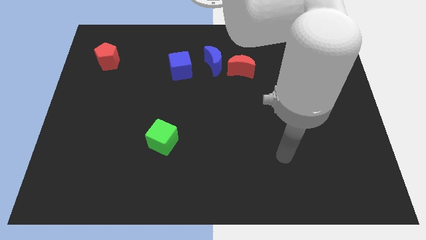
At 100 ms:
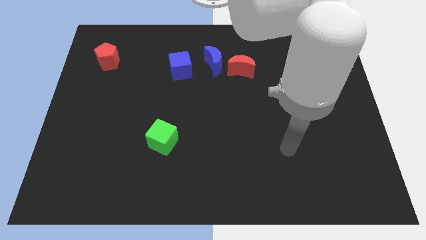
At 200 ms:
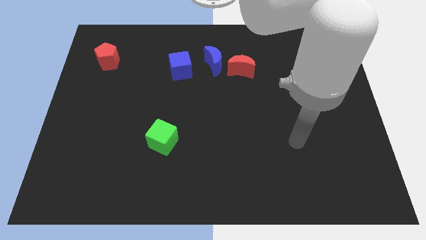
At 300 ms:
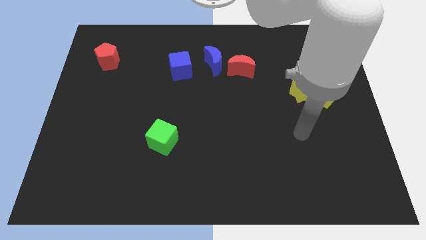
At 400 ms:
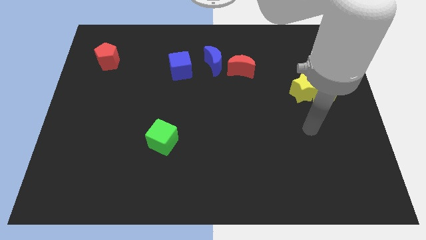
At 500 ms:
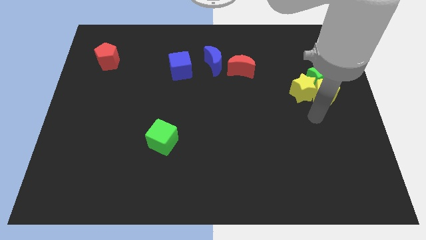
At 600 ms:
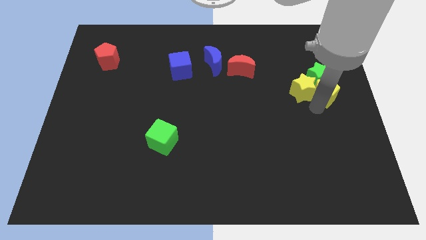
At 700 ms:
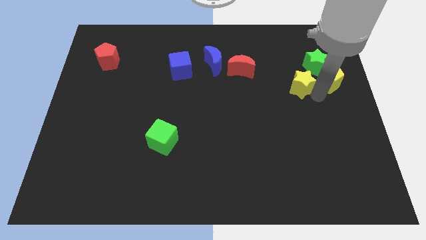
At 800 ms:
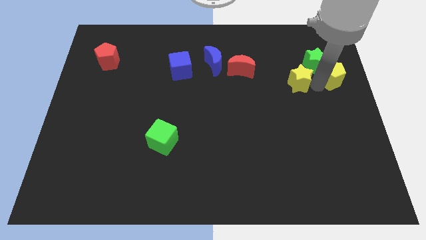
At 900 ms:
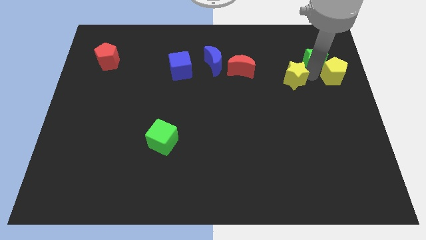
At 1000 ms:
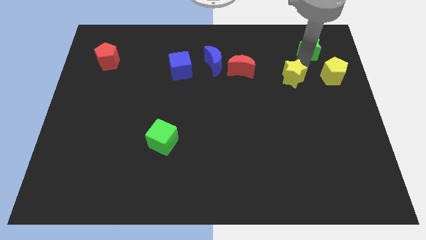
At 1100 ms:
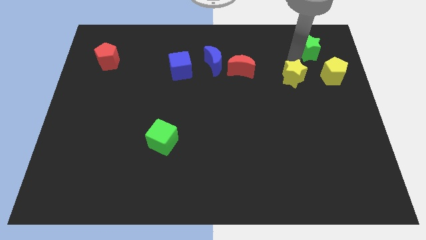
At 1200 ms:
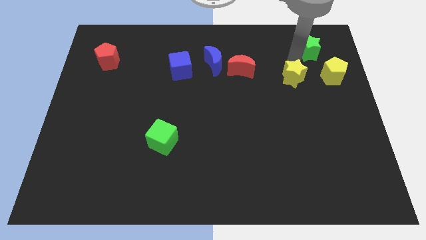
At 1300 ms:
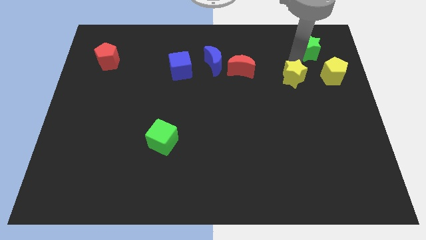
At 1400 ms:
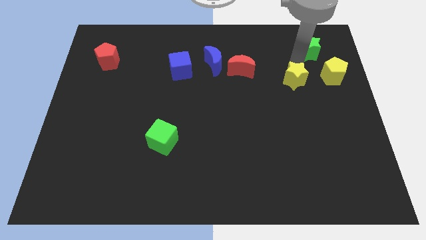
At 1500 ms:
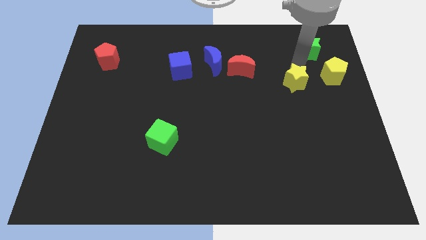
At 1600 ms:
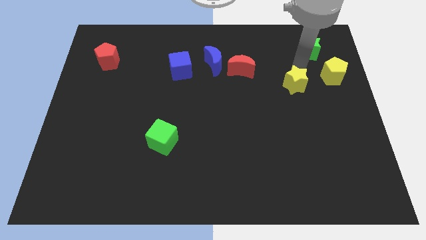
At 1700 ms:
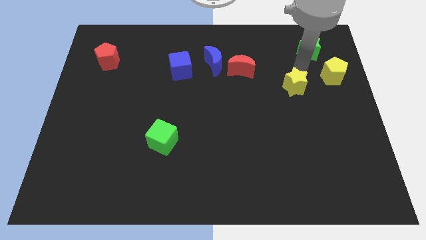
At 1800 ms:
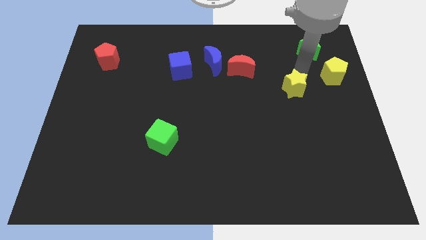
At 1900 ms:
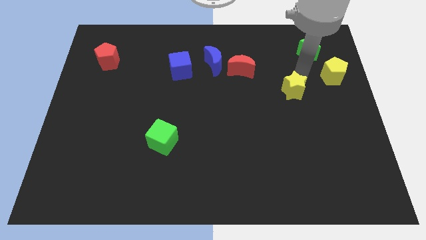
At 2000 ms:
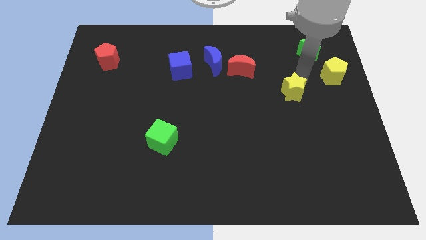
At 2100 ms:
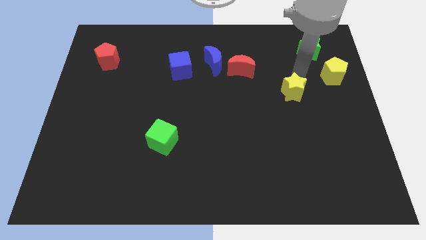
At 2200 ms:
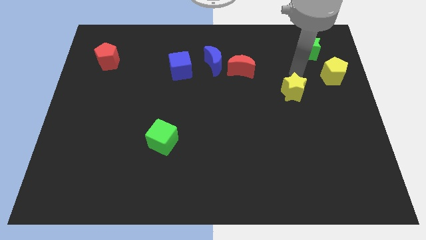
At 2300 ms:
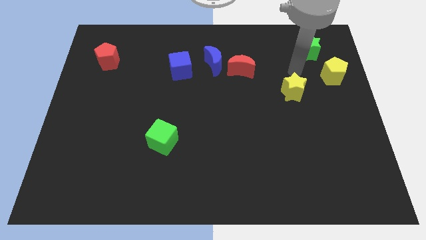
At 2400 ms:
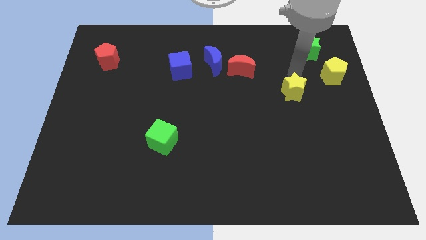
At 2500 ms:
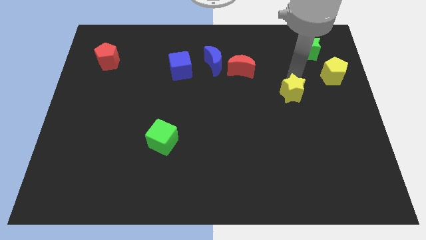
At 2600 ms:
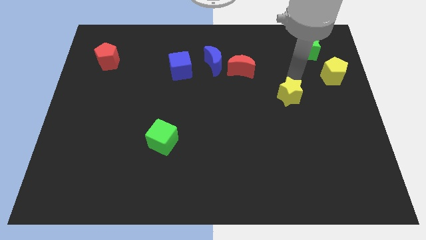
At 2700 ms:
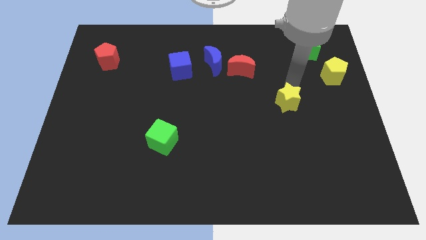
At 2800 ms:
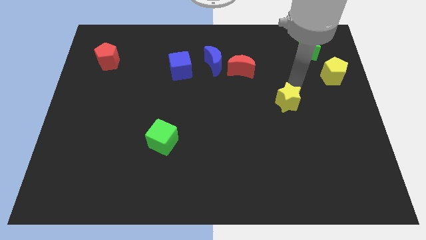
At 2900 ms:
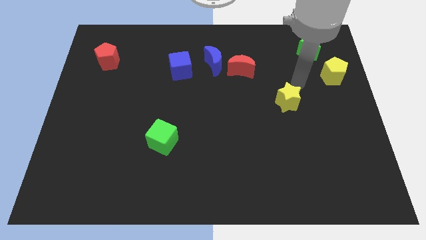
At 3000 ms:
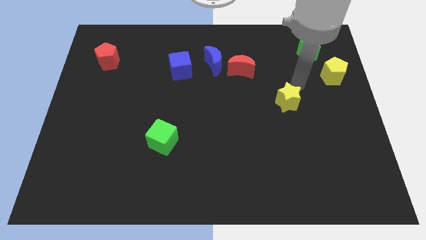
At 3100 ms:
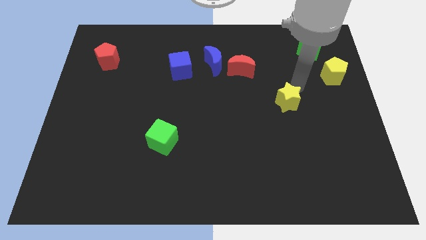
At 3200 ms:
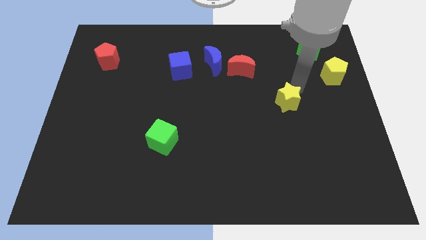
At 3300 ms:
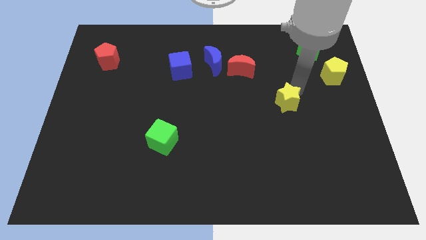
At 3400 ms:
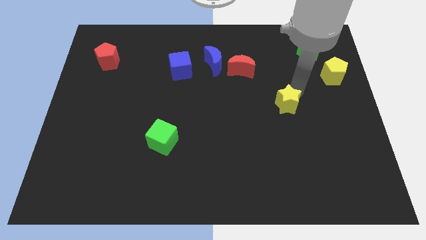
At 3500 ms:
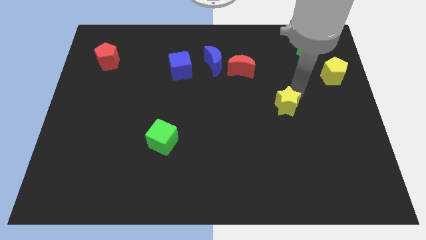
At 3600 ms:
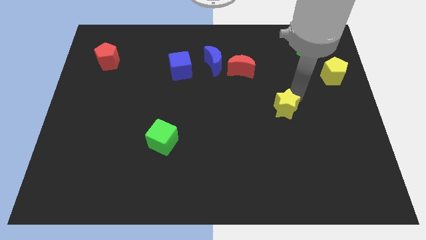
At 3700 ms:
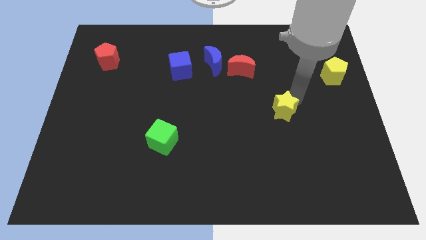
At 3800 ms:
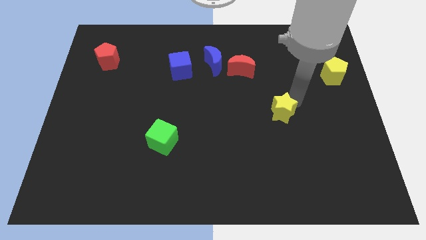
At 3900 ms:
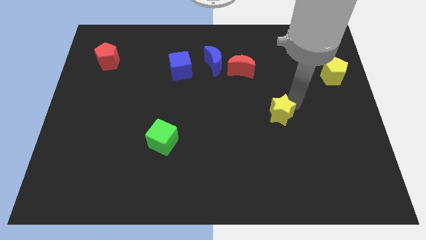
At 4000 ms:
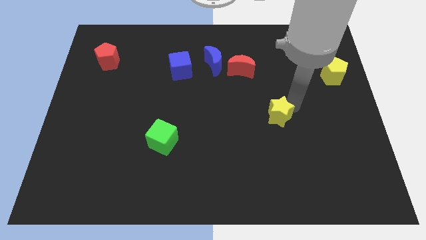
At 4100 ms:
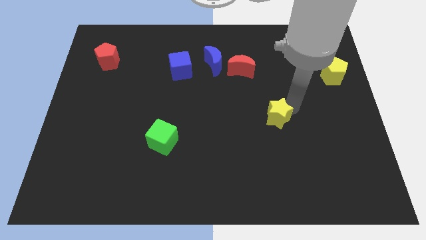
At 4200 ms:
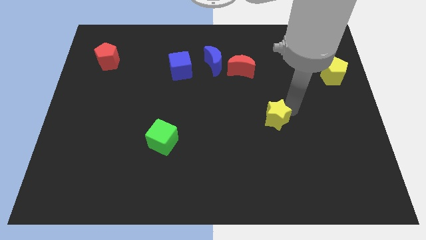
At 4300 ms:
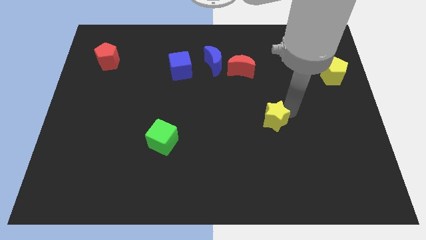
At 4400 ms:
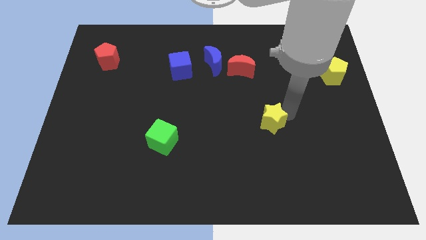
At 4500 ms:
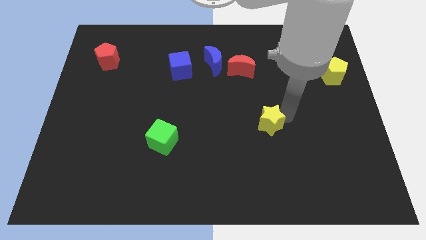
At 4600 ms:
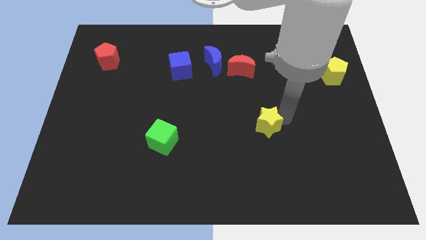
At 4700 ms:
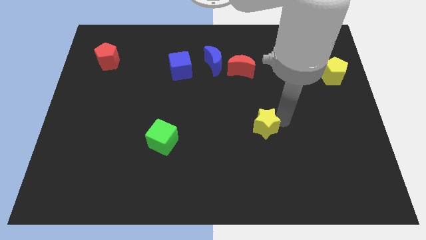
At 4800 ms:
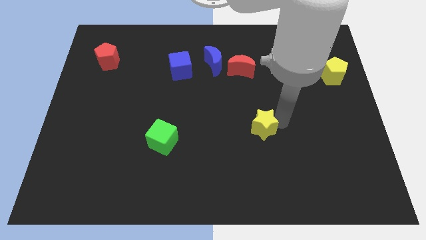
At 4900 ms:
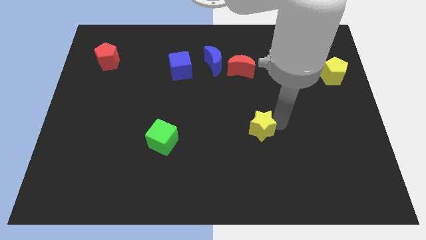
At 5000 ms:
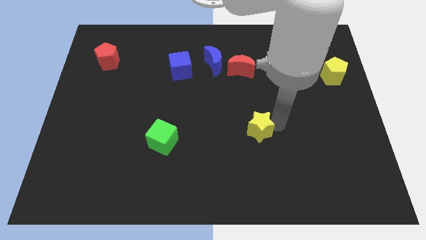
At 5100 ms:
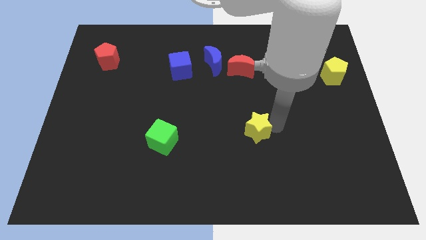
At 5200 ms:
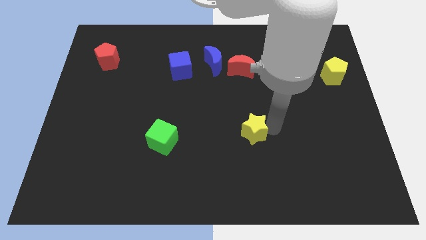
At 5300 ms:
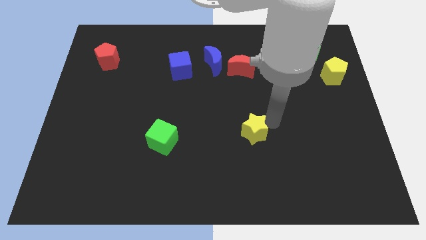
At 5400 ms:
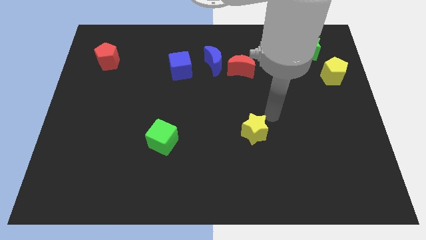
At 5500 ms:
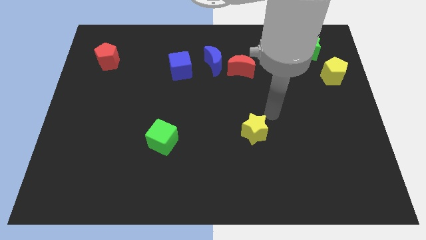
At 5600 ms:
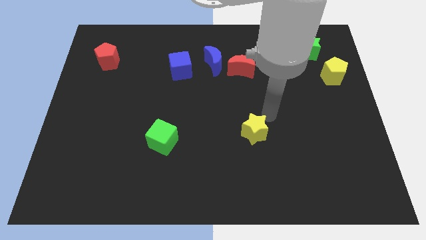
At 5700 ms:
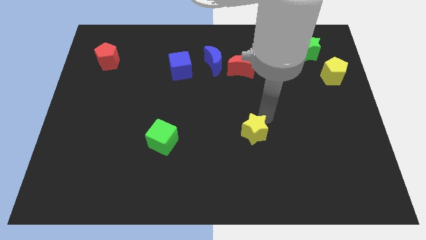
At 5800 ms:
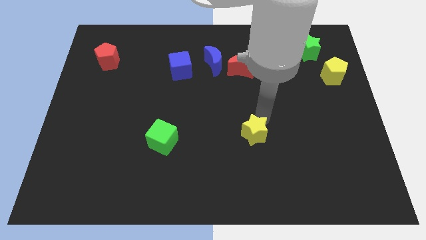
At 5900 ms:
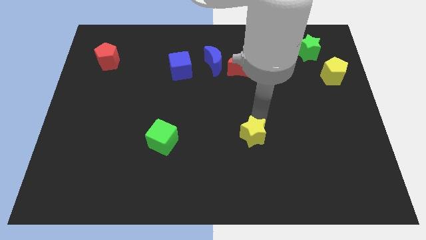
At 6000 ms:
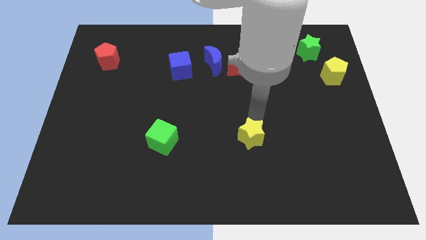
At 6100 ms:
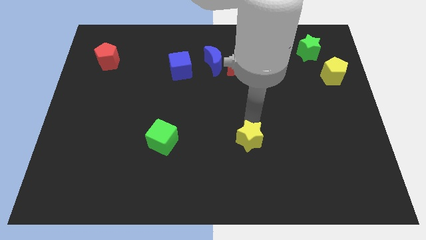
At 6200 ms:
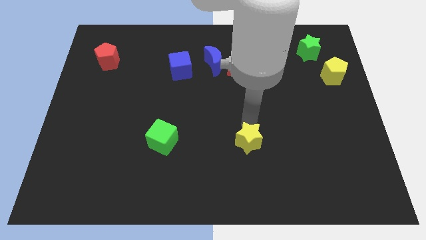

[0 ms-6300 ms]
move the yellow star diagonally downwards and to the left

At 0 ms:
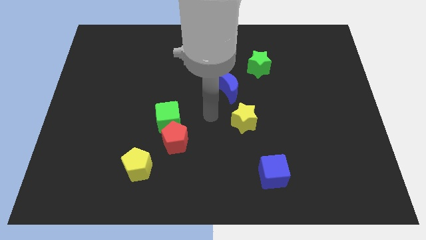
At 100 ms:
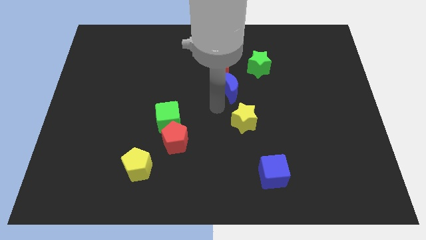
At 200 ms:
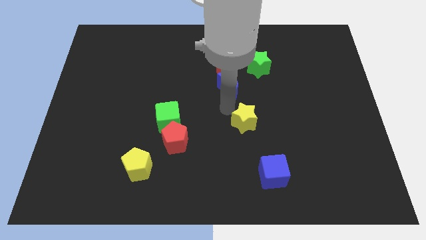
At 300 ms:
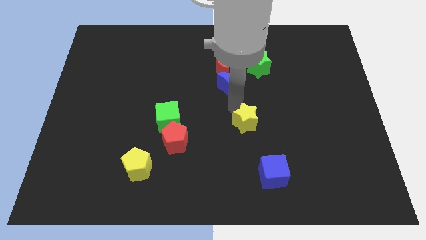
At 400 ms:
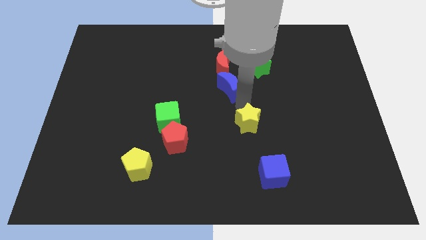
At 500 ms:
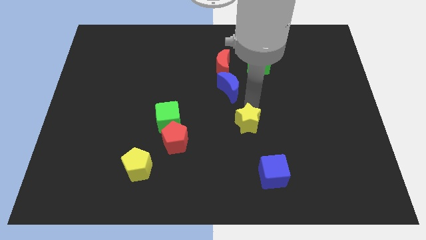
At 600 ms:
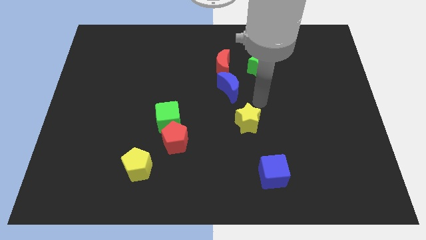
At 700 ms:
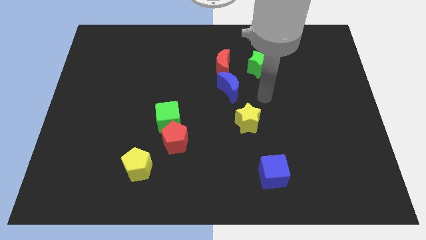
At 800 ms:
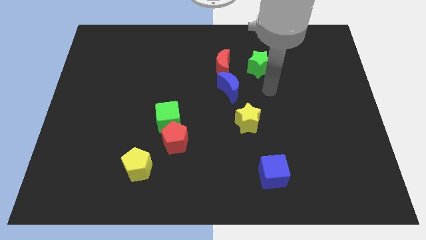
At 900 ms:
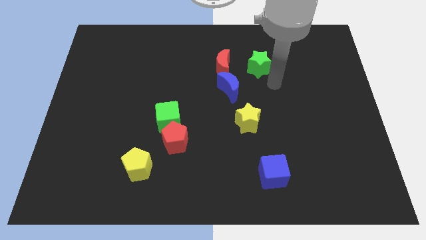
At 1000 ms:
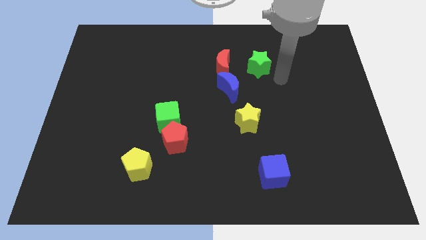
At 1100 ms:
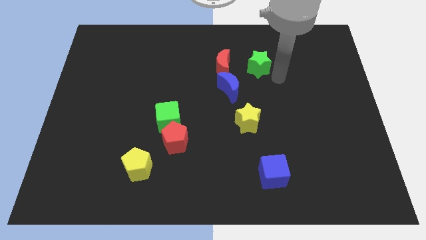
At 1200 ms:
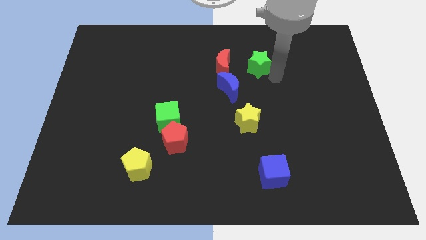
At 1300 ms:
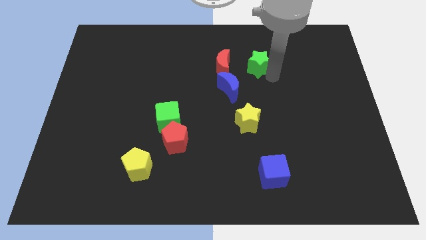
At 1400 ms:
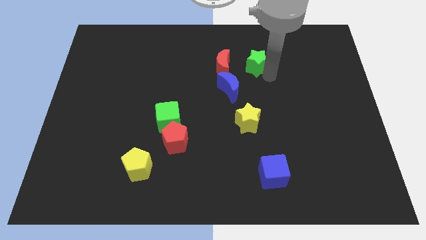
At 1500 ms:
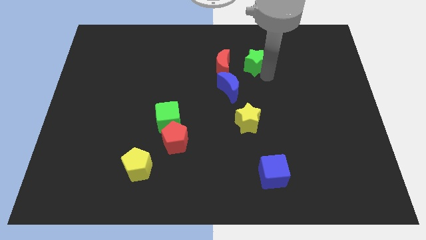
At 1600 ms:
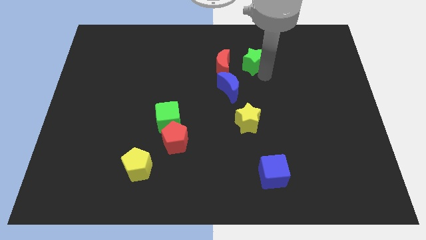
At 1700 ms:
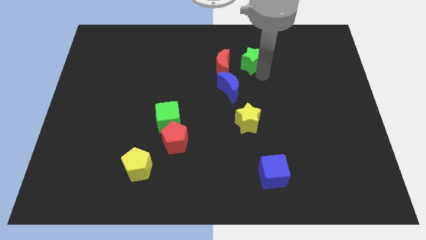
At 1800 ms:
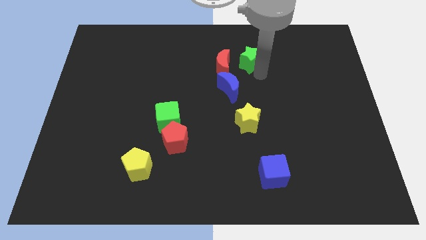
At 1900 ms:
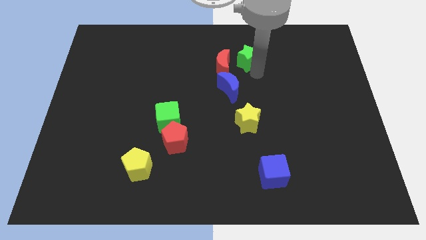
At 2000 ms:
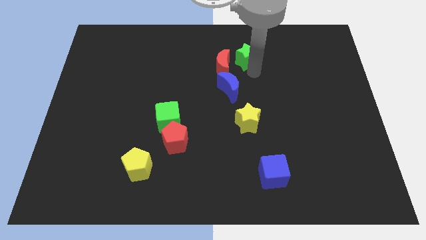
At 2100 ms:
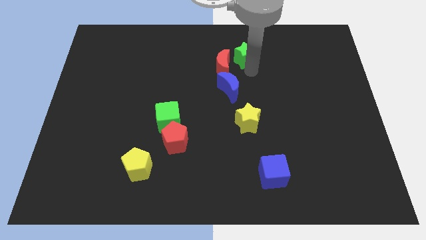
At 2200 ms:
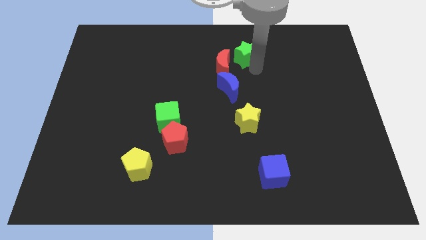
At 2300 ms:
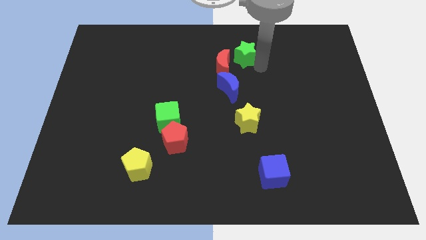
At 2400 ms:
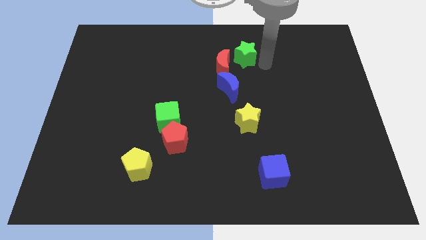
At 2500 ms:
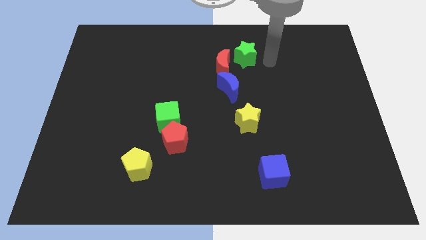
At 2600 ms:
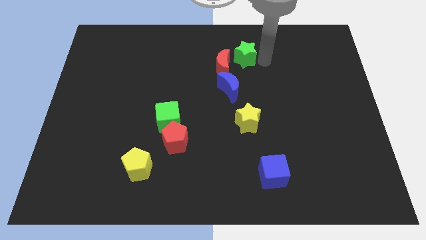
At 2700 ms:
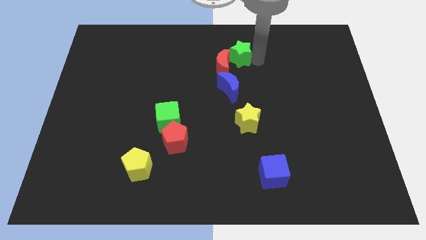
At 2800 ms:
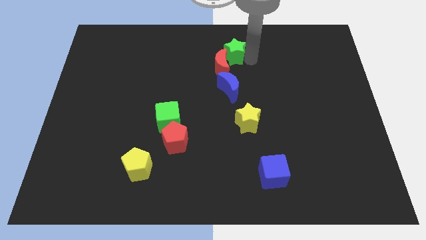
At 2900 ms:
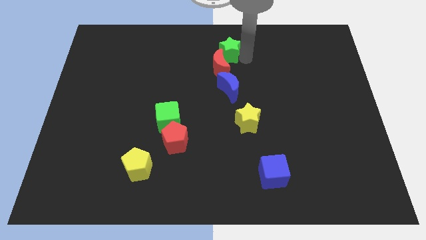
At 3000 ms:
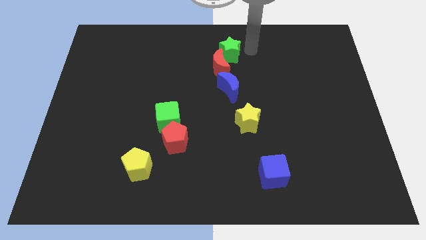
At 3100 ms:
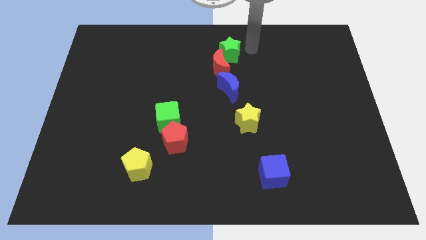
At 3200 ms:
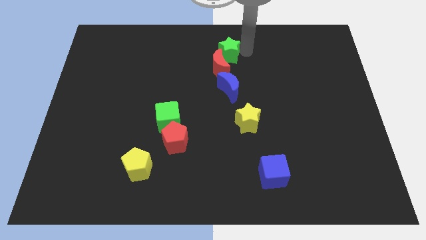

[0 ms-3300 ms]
push the green star to the left slightly
